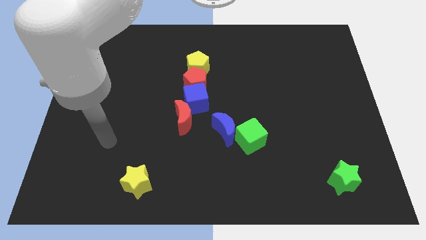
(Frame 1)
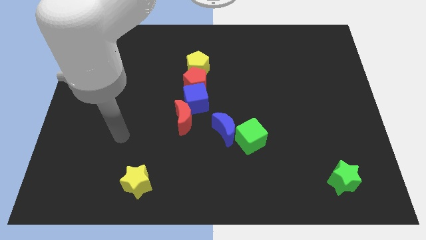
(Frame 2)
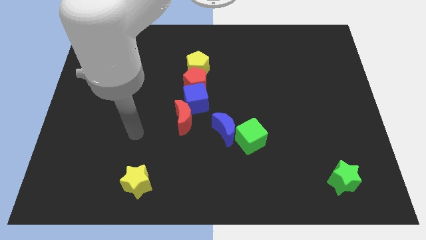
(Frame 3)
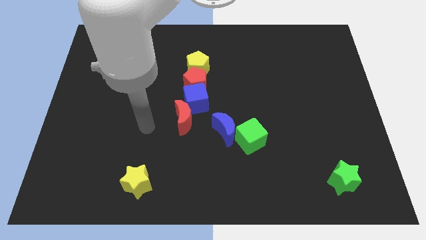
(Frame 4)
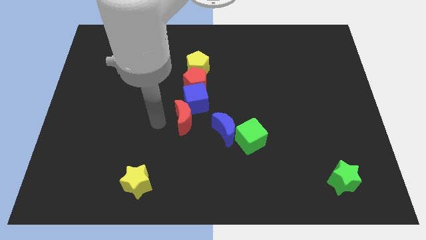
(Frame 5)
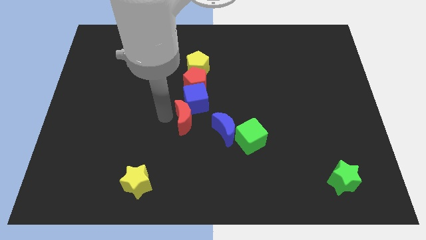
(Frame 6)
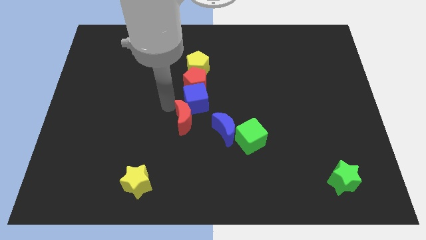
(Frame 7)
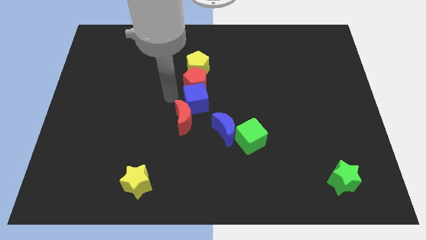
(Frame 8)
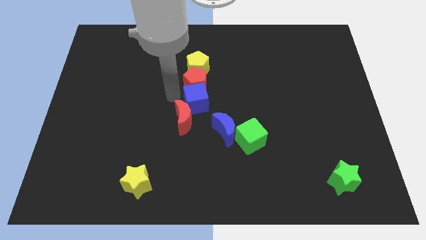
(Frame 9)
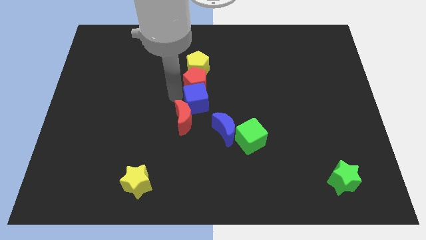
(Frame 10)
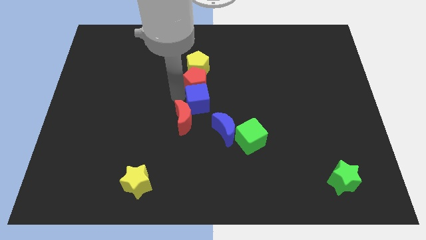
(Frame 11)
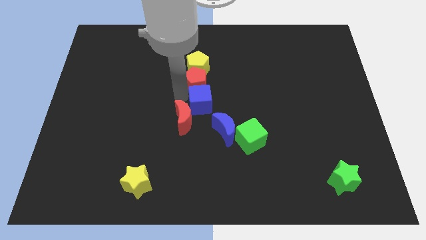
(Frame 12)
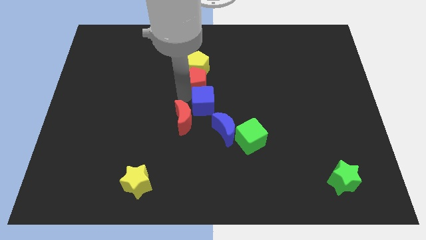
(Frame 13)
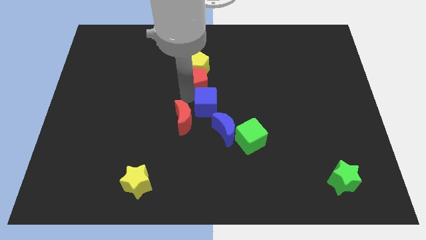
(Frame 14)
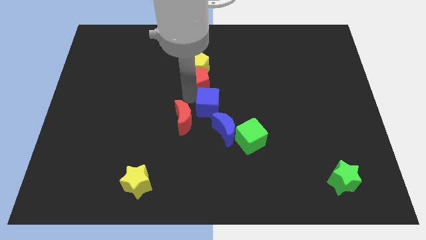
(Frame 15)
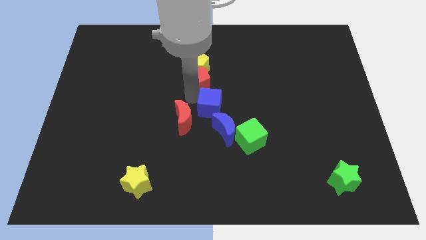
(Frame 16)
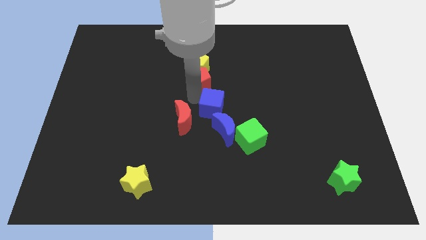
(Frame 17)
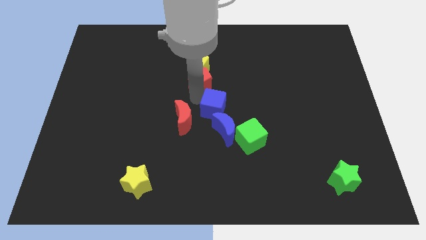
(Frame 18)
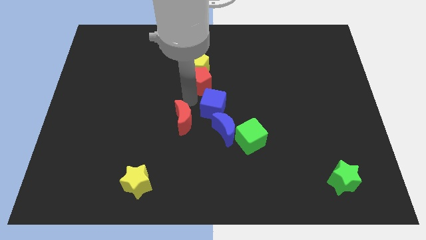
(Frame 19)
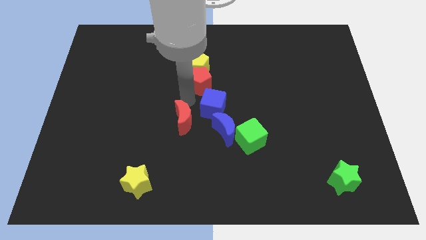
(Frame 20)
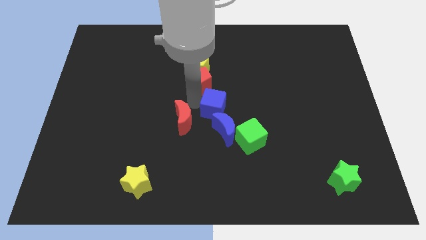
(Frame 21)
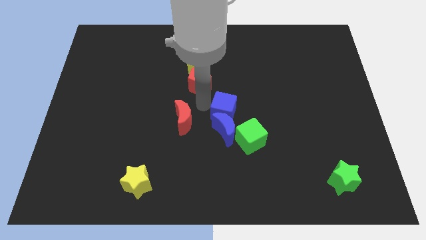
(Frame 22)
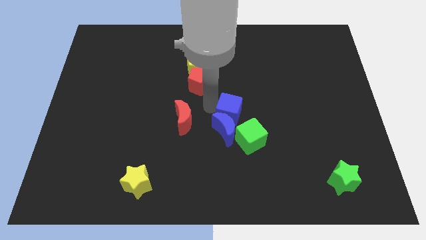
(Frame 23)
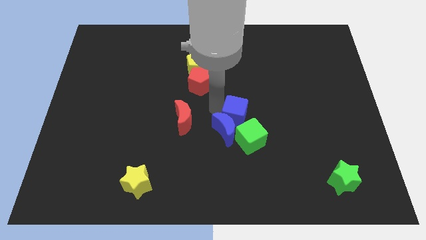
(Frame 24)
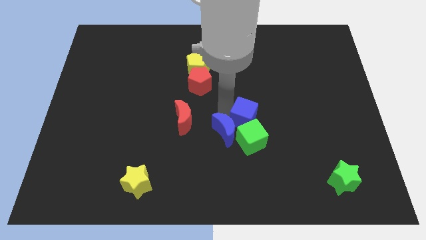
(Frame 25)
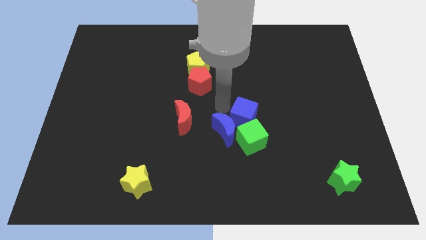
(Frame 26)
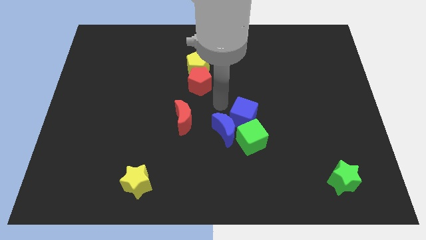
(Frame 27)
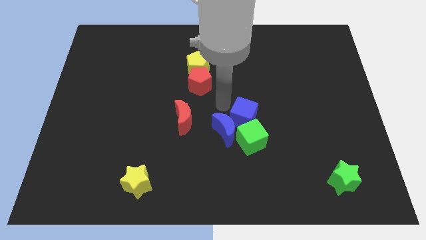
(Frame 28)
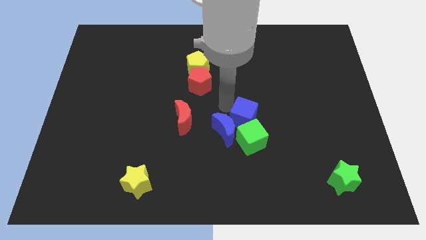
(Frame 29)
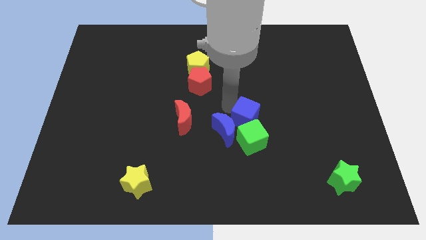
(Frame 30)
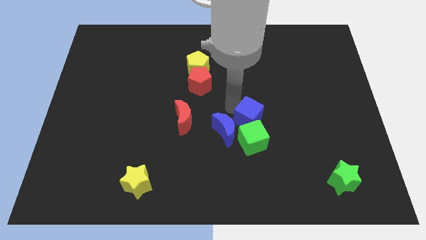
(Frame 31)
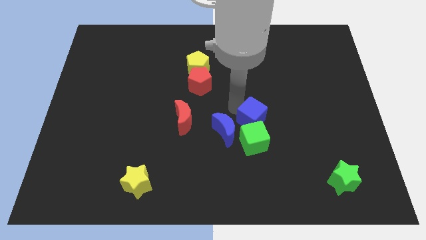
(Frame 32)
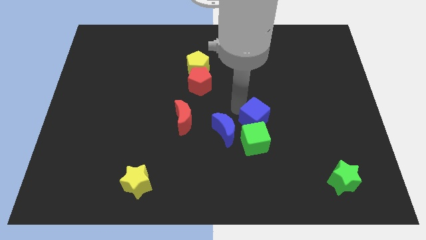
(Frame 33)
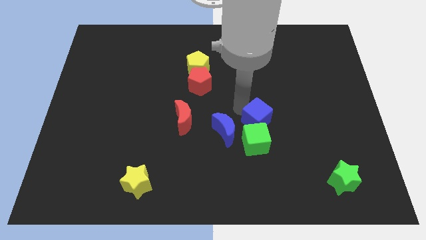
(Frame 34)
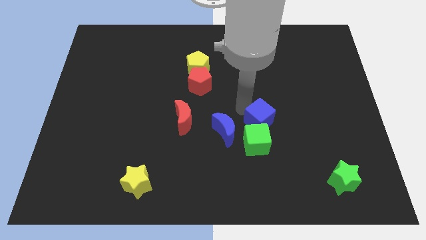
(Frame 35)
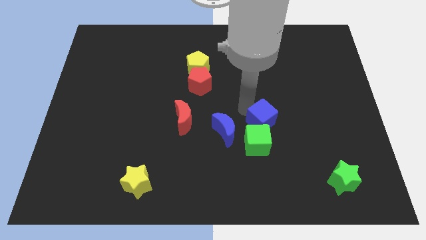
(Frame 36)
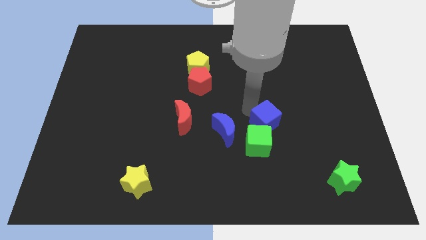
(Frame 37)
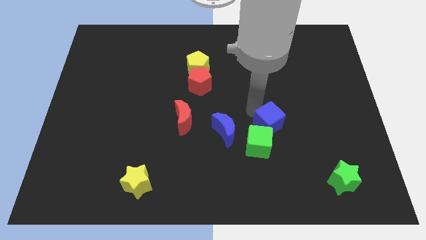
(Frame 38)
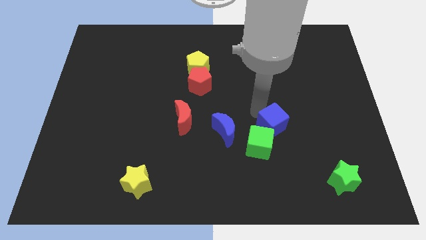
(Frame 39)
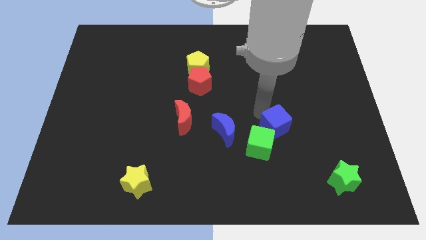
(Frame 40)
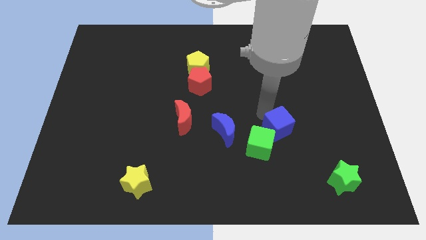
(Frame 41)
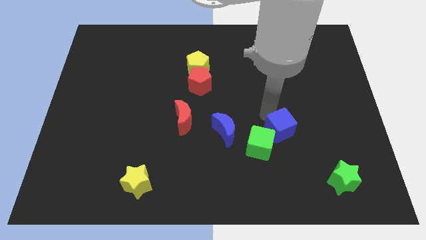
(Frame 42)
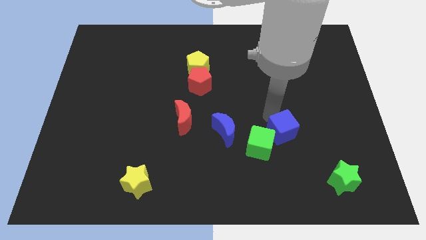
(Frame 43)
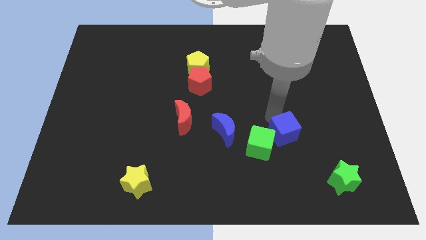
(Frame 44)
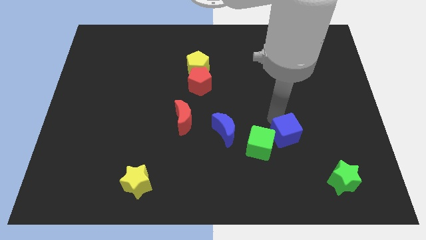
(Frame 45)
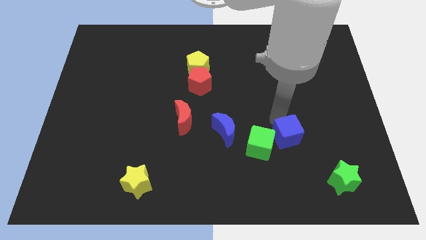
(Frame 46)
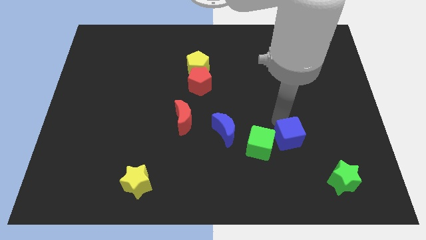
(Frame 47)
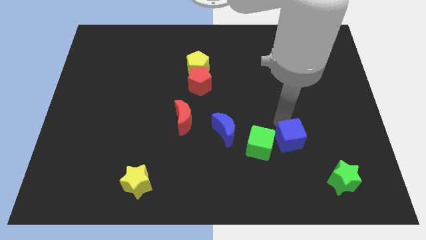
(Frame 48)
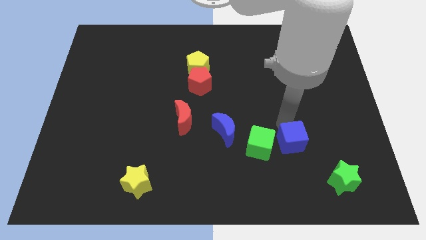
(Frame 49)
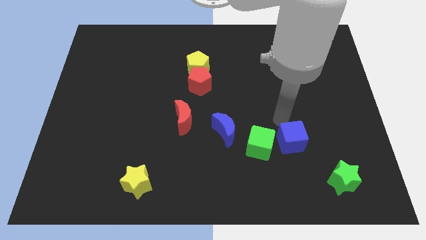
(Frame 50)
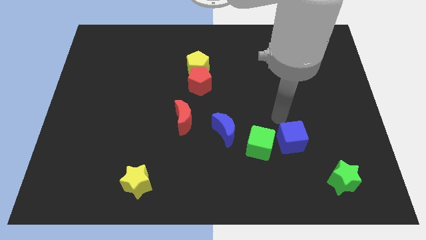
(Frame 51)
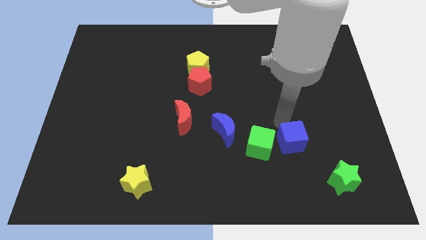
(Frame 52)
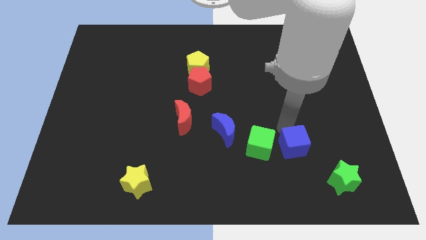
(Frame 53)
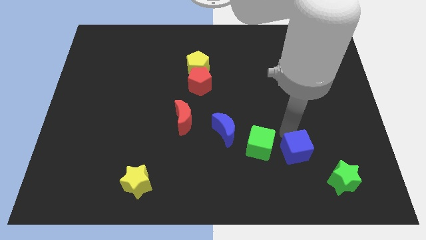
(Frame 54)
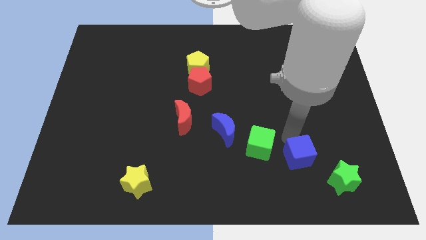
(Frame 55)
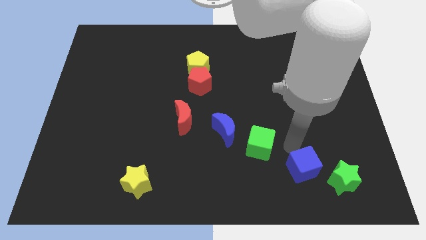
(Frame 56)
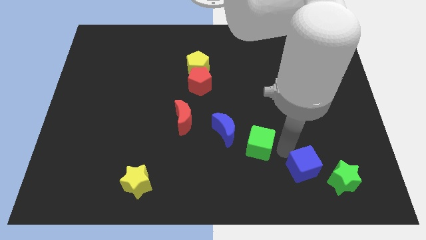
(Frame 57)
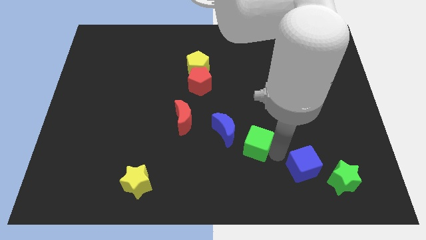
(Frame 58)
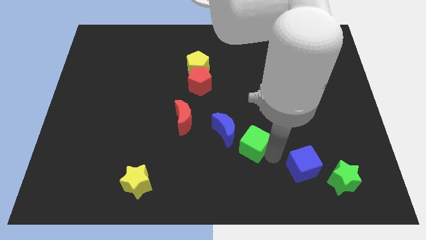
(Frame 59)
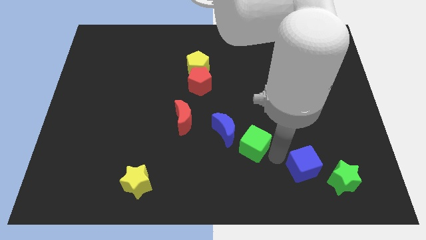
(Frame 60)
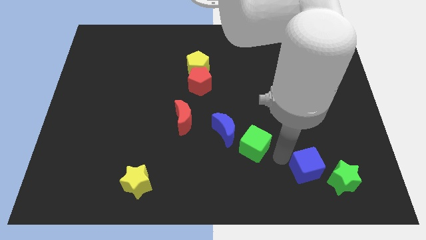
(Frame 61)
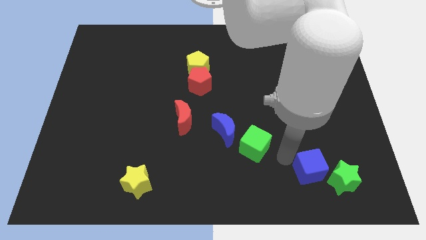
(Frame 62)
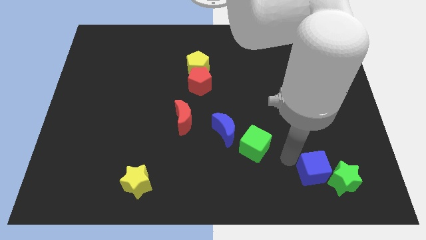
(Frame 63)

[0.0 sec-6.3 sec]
push the blue cube to the green star
